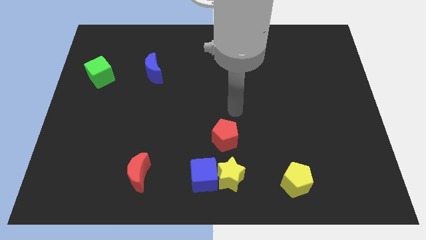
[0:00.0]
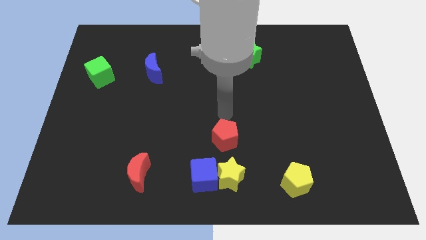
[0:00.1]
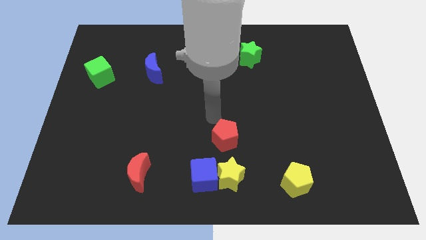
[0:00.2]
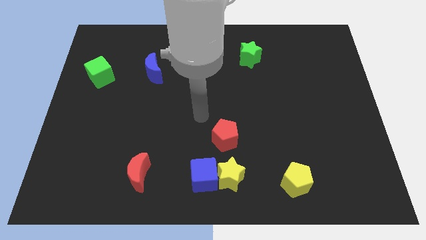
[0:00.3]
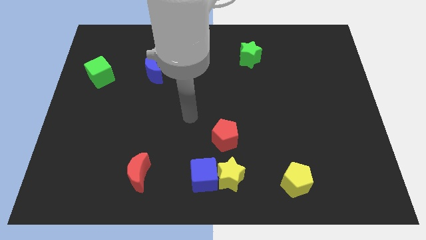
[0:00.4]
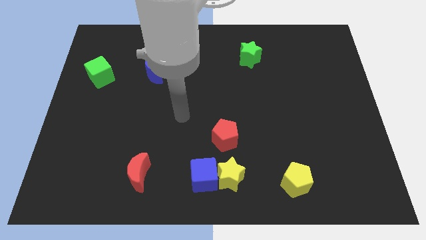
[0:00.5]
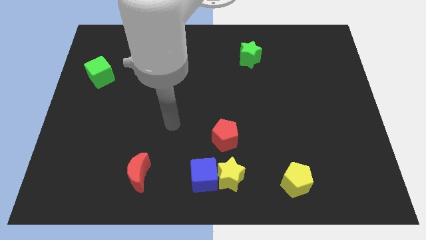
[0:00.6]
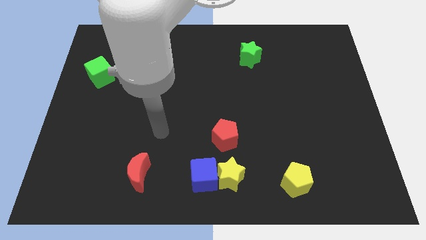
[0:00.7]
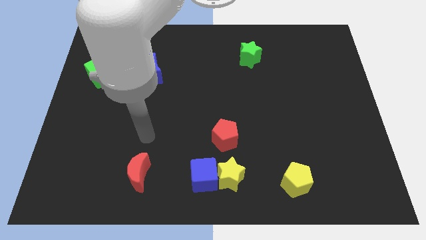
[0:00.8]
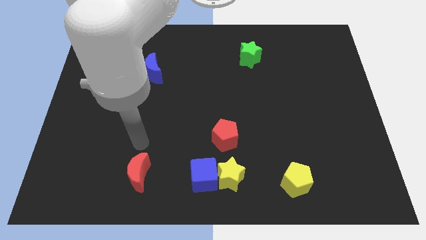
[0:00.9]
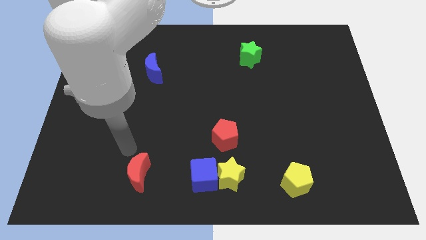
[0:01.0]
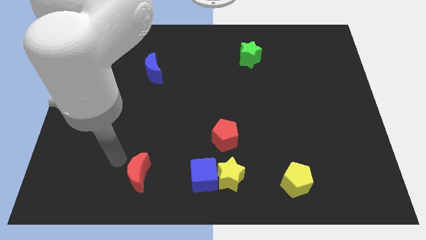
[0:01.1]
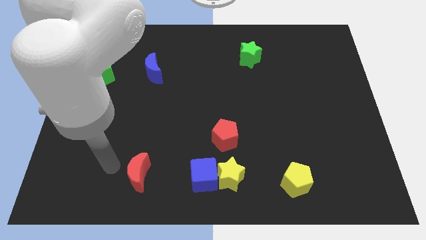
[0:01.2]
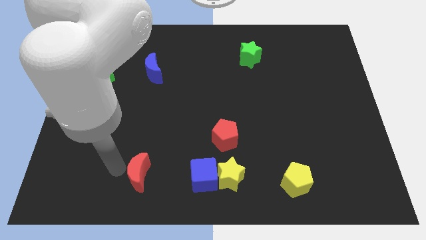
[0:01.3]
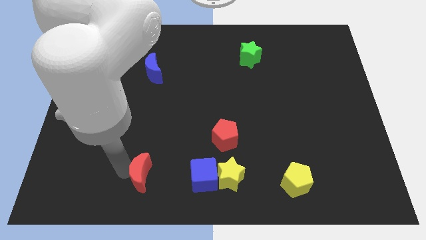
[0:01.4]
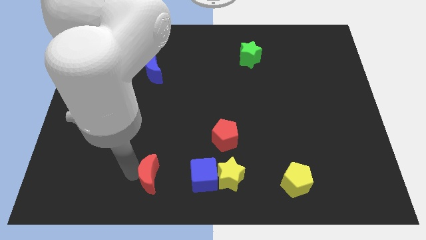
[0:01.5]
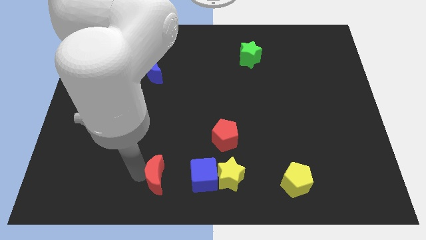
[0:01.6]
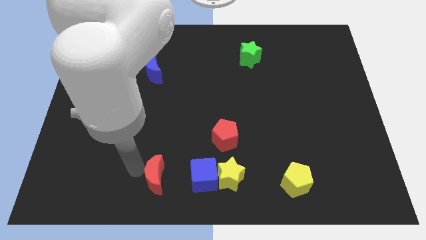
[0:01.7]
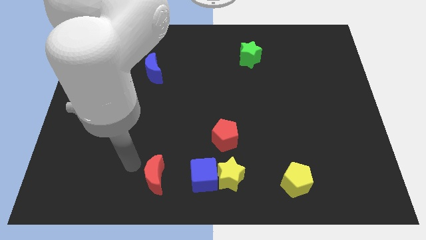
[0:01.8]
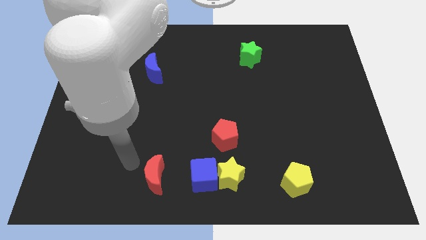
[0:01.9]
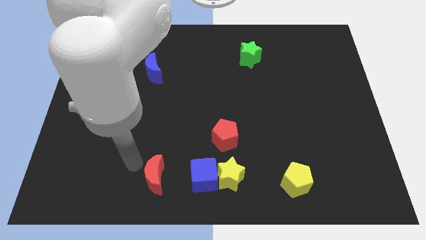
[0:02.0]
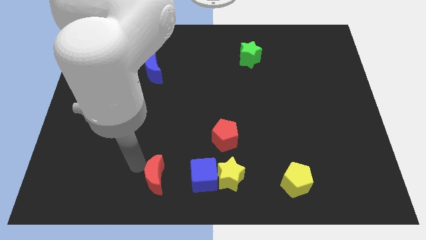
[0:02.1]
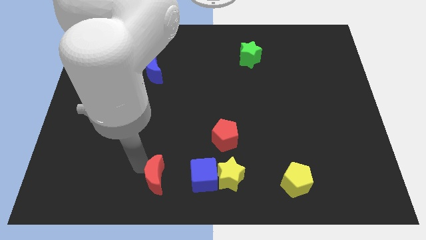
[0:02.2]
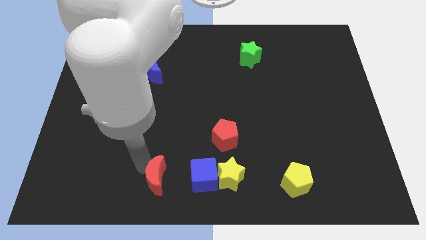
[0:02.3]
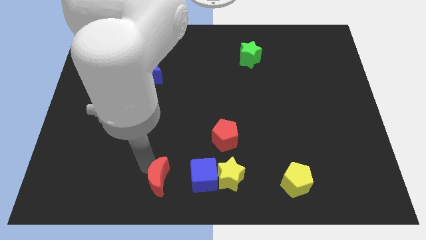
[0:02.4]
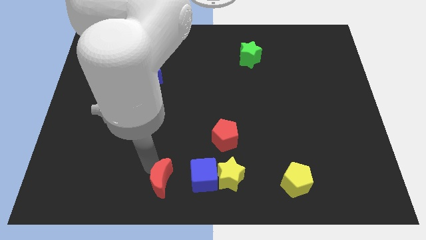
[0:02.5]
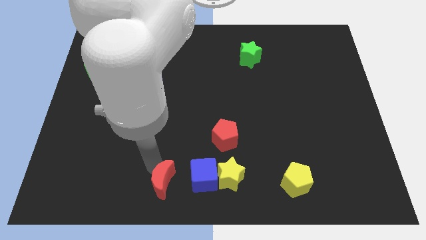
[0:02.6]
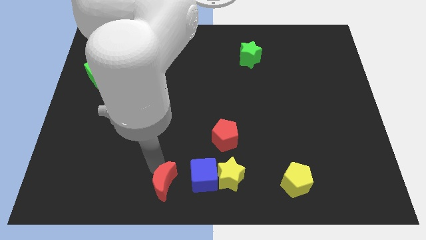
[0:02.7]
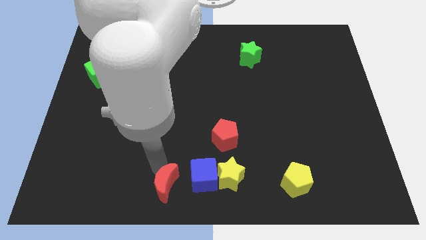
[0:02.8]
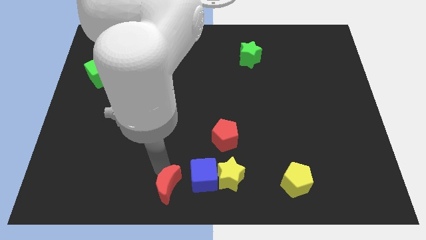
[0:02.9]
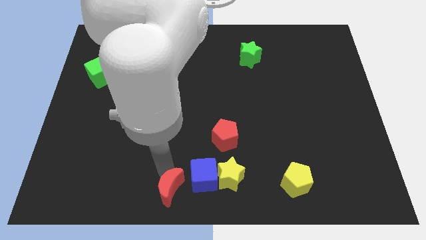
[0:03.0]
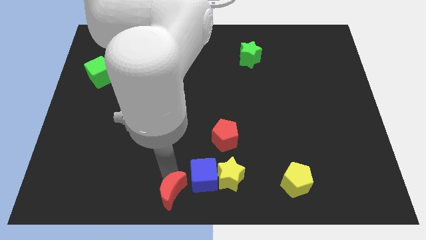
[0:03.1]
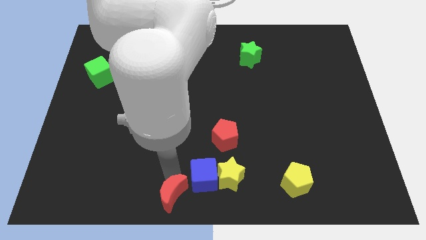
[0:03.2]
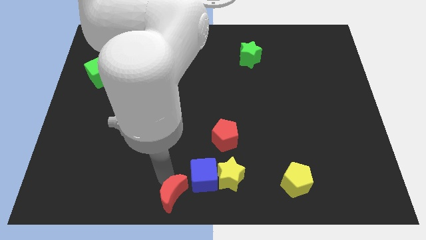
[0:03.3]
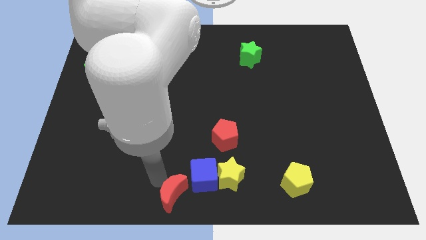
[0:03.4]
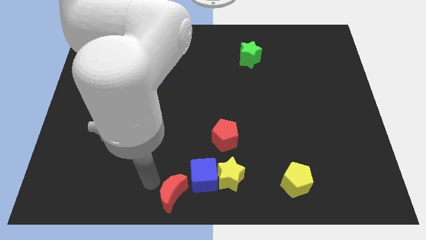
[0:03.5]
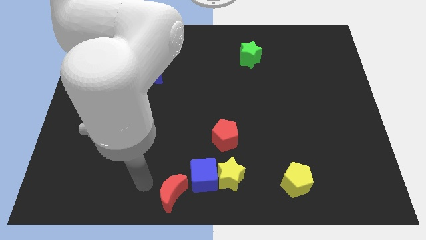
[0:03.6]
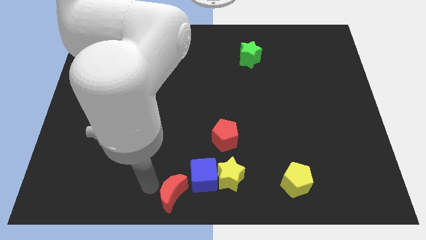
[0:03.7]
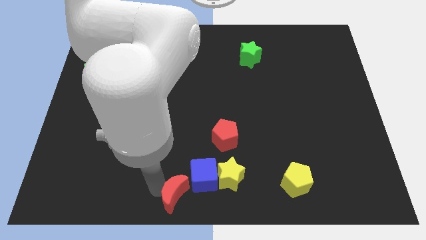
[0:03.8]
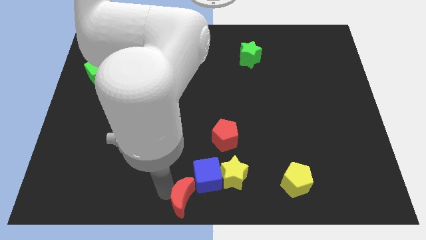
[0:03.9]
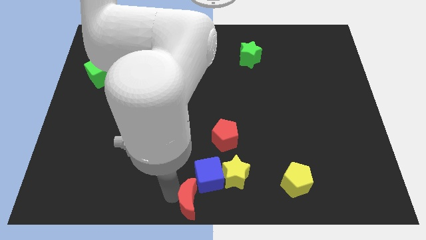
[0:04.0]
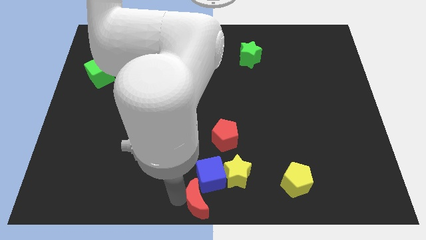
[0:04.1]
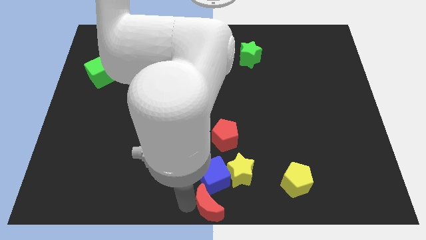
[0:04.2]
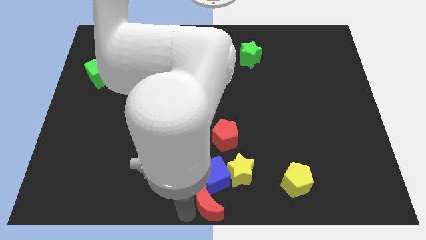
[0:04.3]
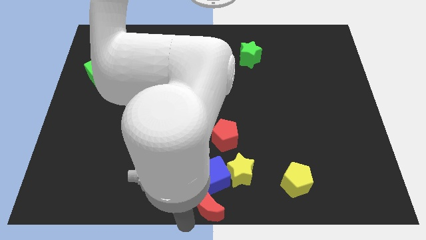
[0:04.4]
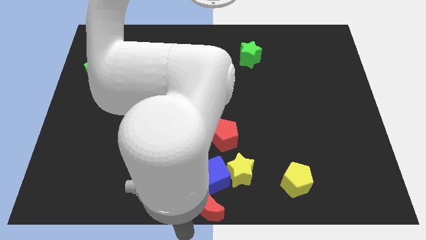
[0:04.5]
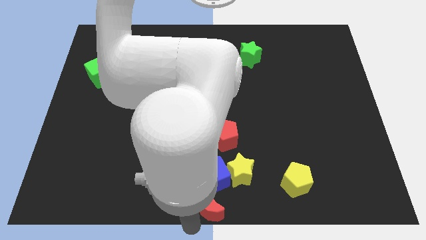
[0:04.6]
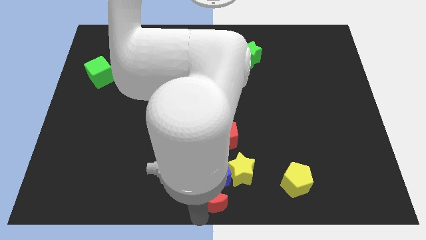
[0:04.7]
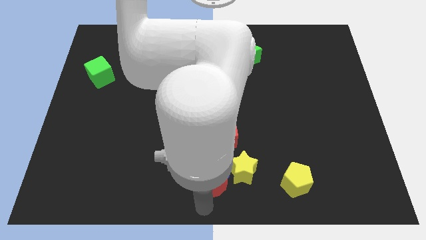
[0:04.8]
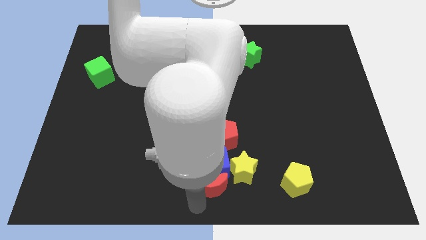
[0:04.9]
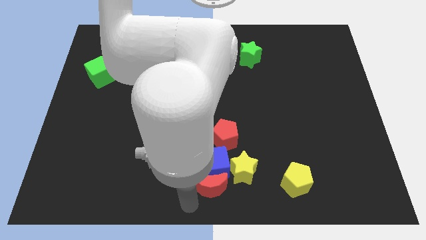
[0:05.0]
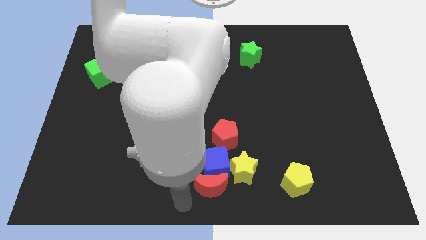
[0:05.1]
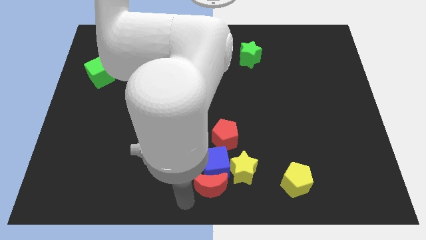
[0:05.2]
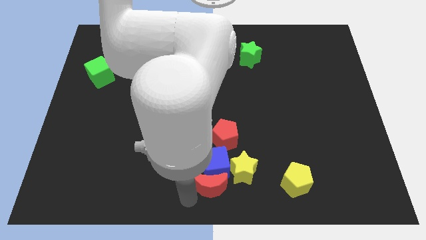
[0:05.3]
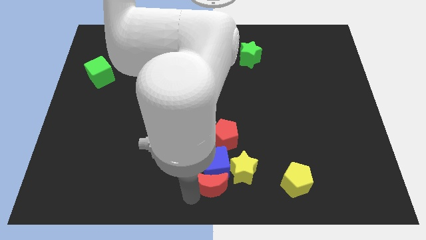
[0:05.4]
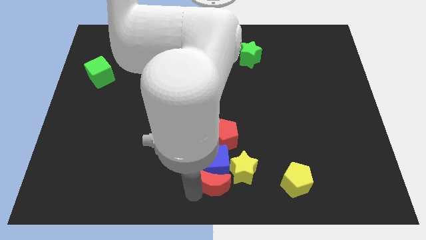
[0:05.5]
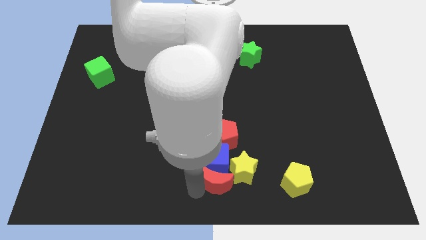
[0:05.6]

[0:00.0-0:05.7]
move the red moon towards the yellow star

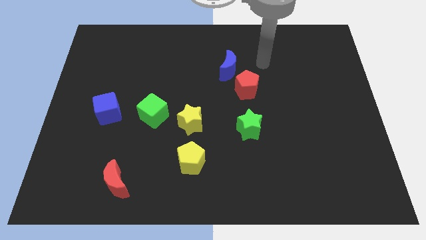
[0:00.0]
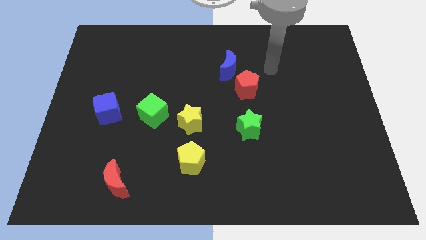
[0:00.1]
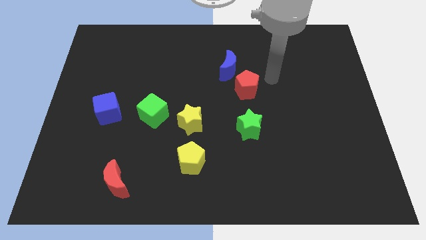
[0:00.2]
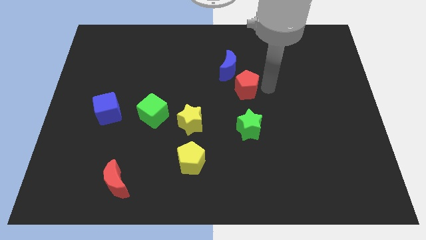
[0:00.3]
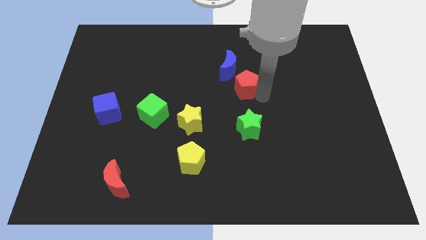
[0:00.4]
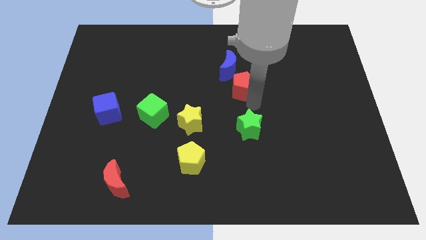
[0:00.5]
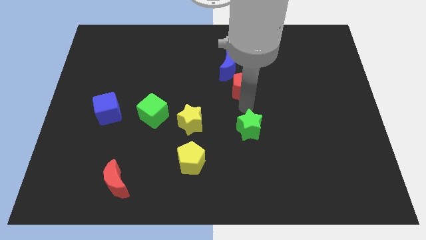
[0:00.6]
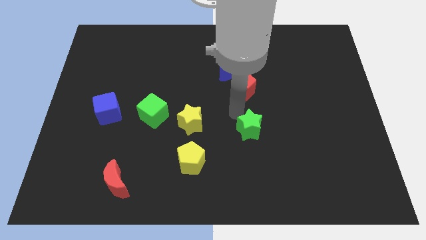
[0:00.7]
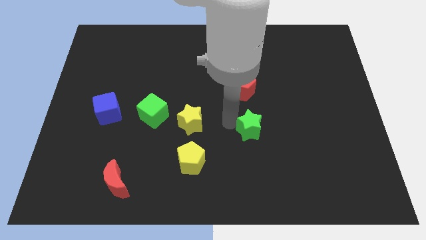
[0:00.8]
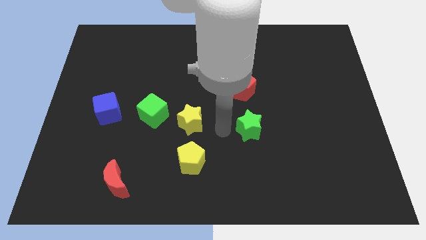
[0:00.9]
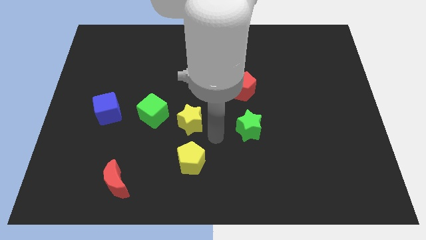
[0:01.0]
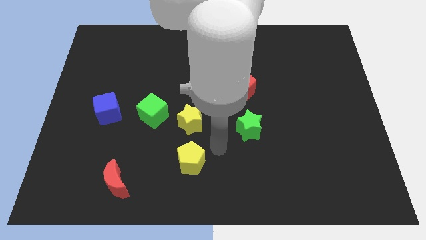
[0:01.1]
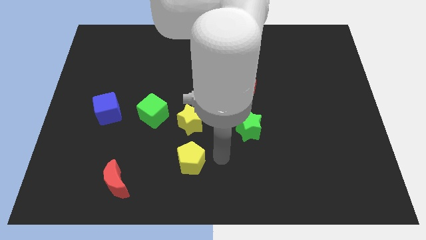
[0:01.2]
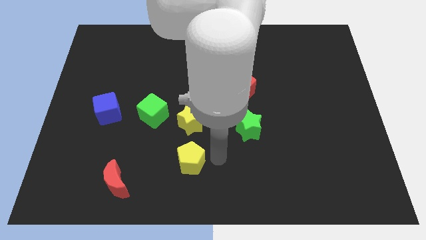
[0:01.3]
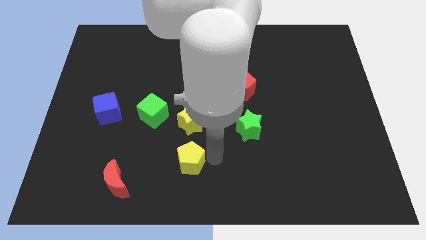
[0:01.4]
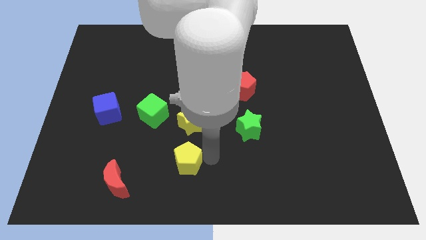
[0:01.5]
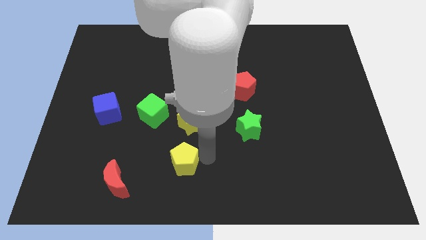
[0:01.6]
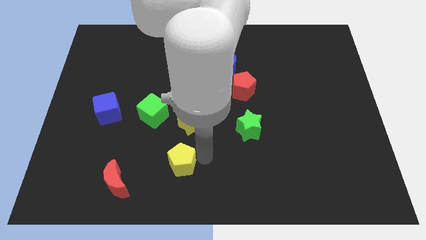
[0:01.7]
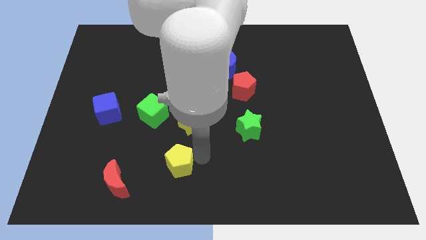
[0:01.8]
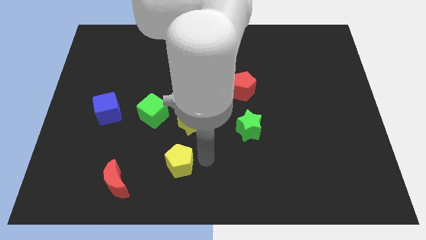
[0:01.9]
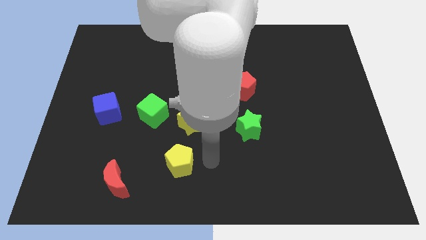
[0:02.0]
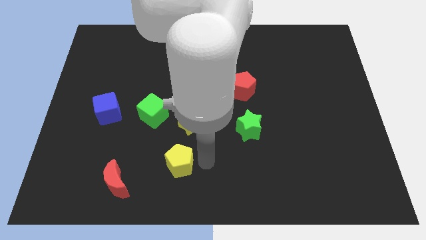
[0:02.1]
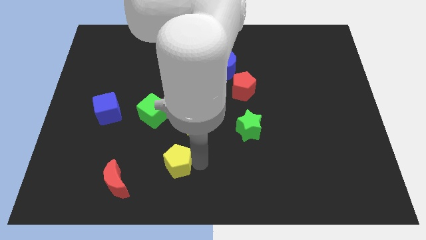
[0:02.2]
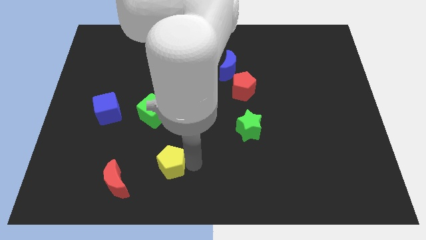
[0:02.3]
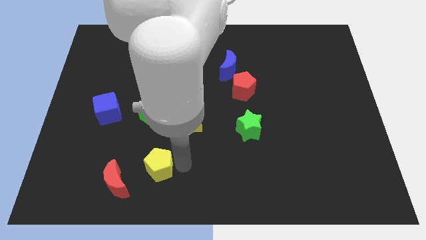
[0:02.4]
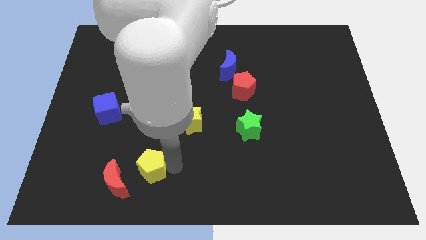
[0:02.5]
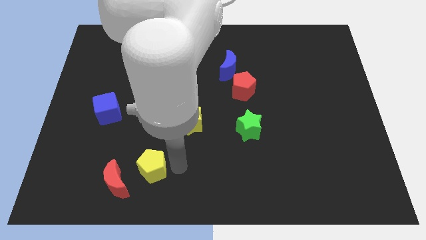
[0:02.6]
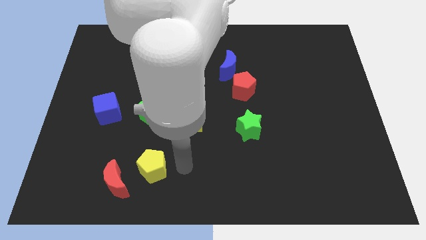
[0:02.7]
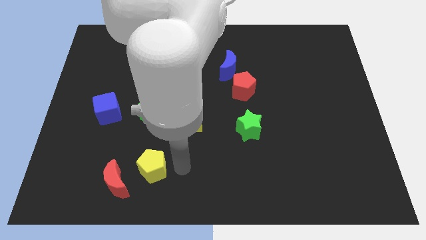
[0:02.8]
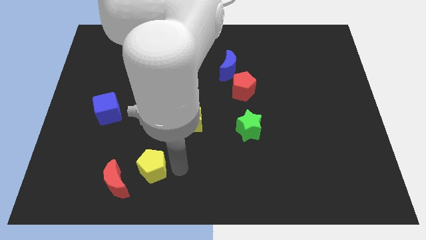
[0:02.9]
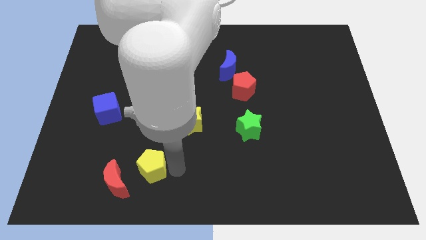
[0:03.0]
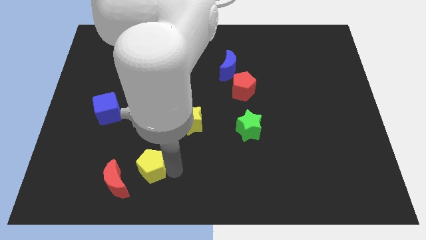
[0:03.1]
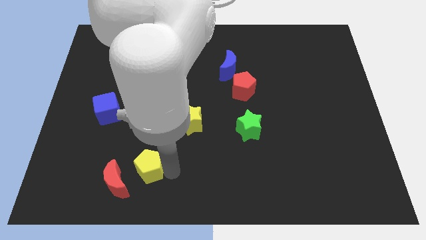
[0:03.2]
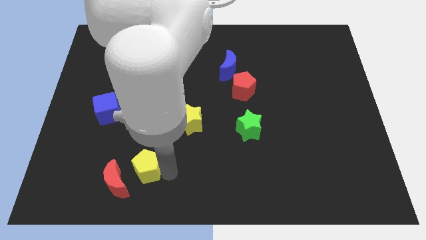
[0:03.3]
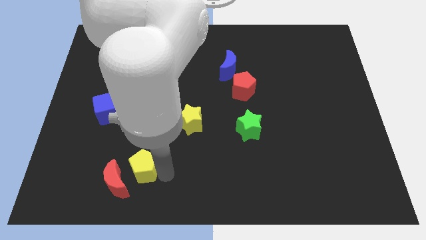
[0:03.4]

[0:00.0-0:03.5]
slide the yellow pentagon towards the red moon
